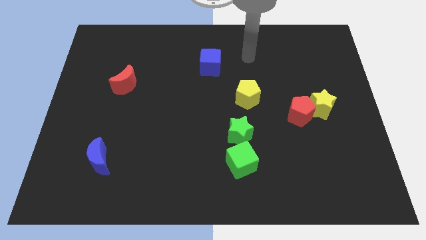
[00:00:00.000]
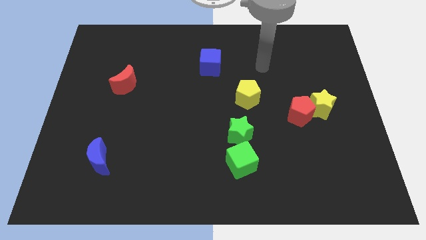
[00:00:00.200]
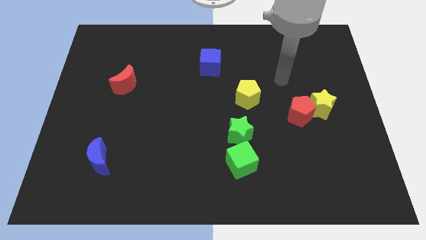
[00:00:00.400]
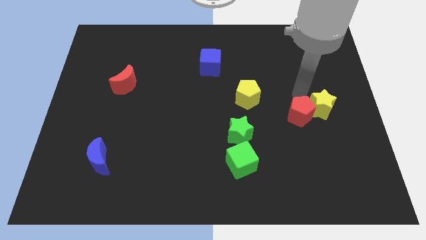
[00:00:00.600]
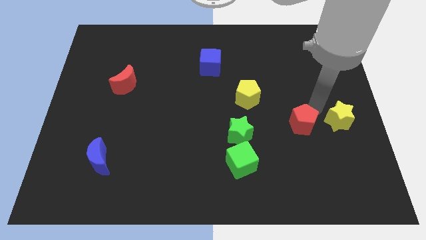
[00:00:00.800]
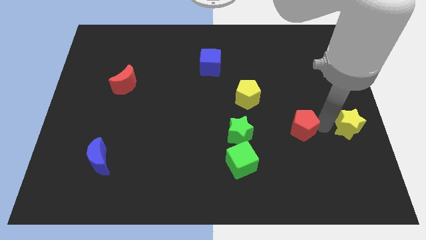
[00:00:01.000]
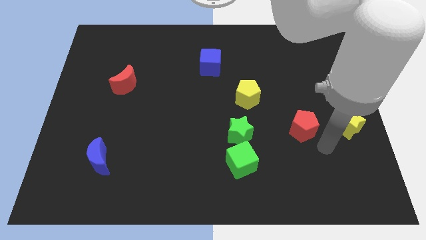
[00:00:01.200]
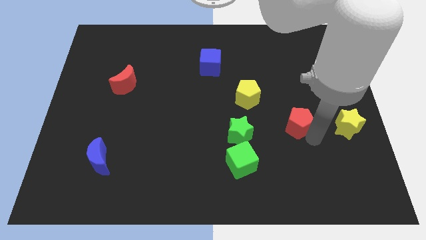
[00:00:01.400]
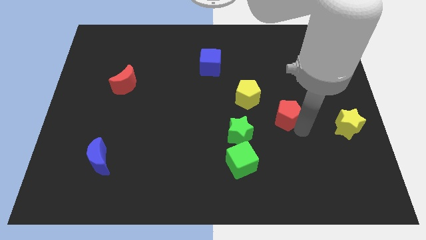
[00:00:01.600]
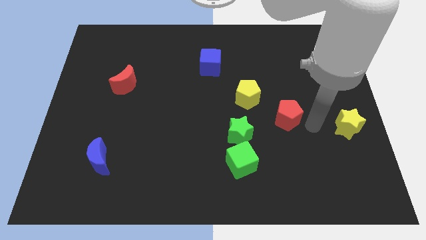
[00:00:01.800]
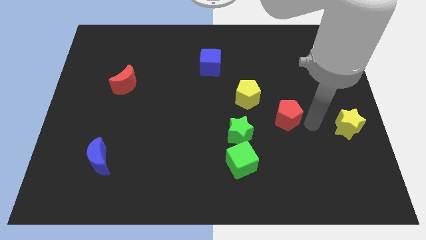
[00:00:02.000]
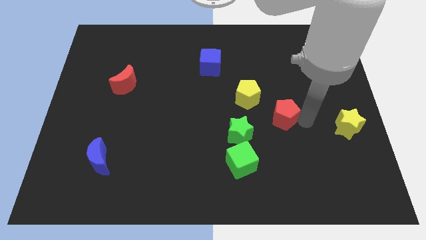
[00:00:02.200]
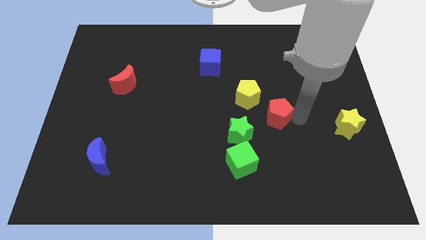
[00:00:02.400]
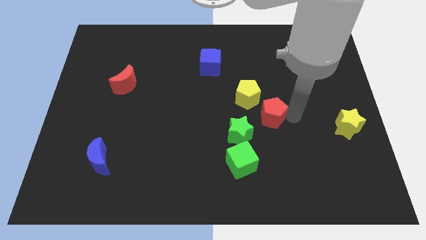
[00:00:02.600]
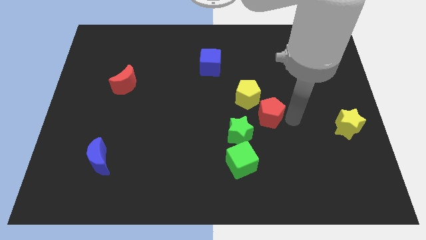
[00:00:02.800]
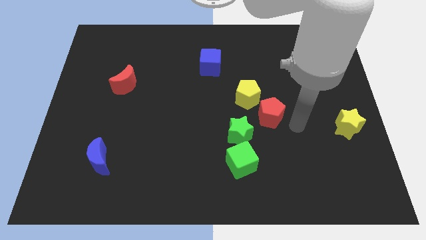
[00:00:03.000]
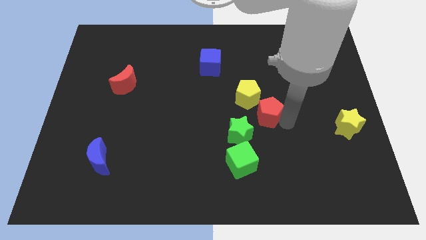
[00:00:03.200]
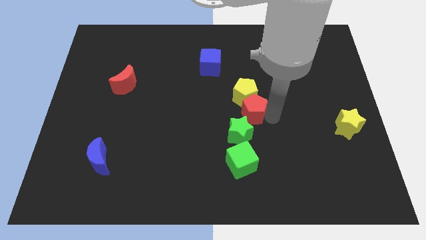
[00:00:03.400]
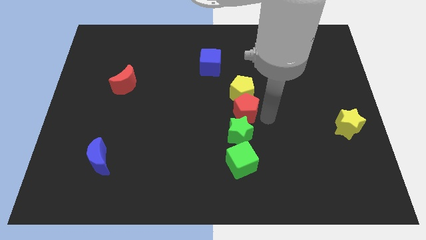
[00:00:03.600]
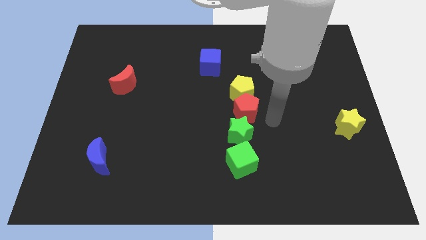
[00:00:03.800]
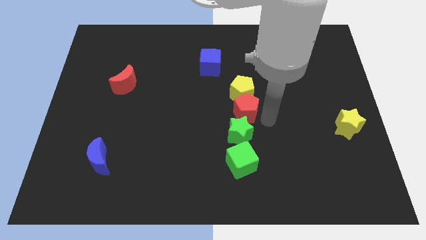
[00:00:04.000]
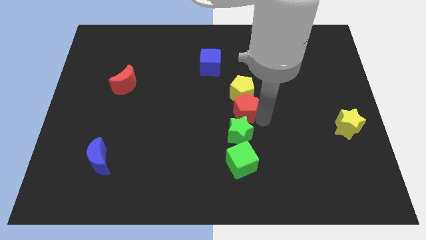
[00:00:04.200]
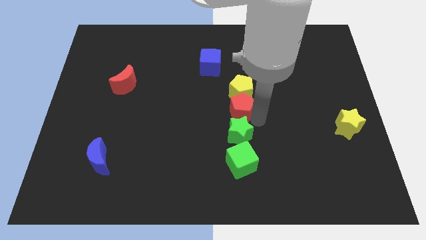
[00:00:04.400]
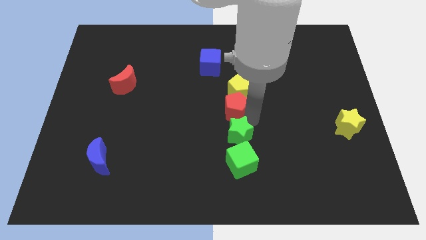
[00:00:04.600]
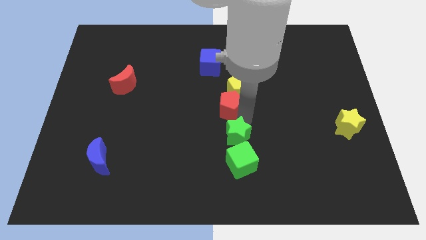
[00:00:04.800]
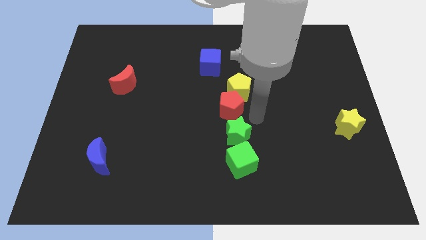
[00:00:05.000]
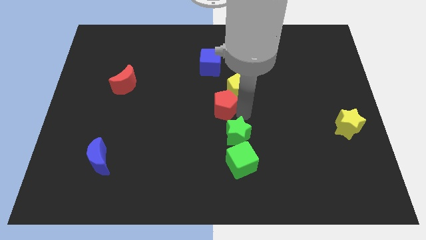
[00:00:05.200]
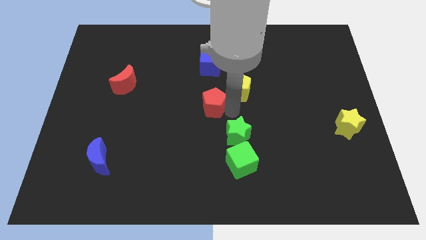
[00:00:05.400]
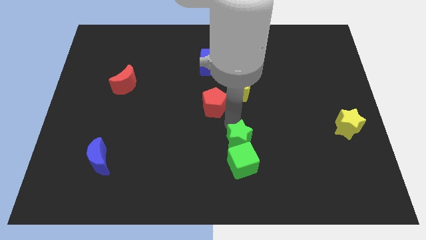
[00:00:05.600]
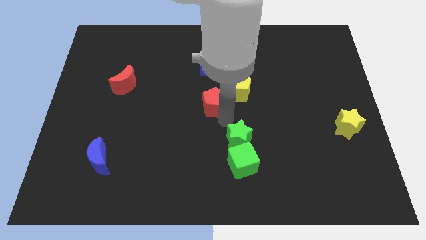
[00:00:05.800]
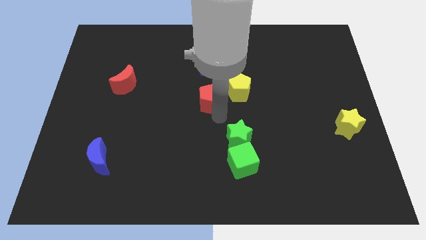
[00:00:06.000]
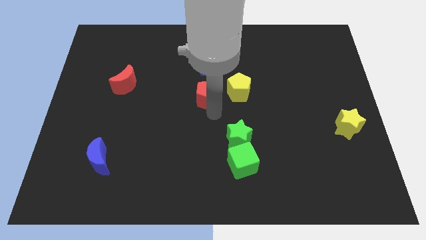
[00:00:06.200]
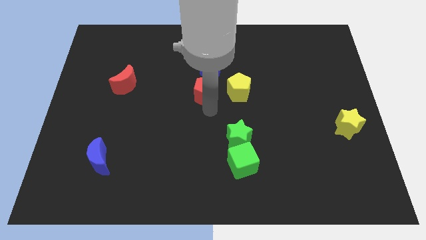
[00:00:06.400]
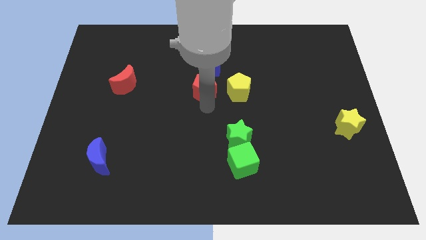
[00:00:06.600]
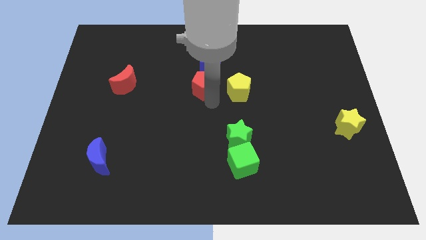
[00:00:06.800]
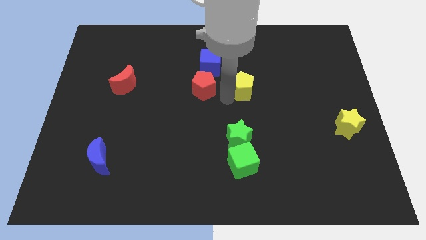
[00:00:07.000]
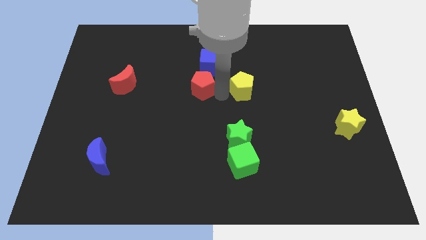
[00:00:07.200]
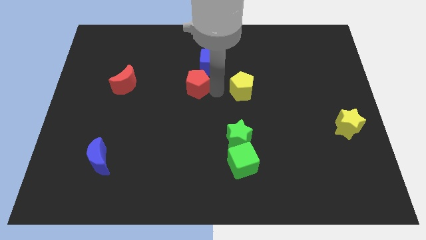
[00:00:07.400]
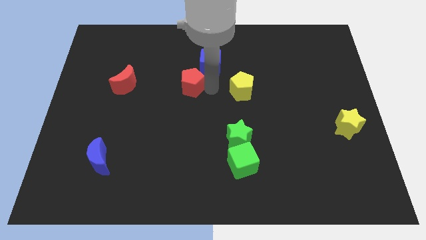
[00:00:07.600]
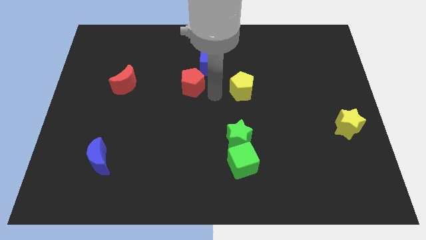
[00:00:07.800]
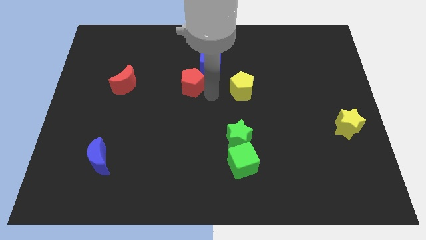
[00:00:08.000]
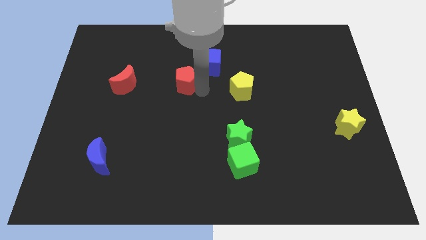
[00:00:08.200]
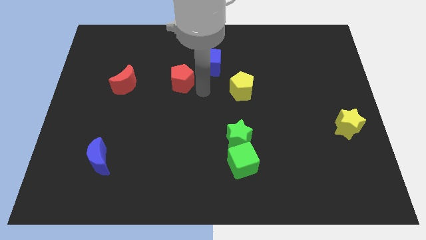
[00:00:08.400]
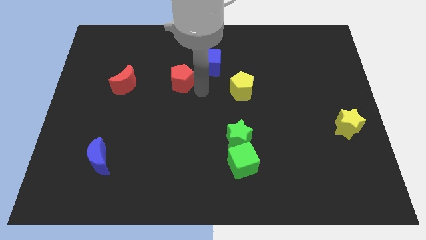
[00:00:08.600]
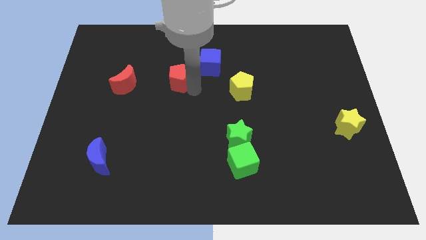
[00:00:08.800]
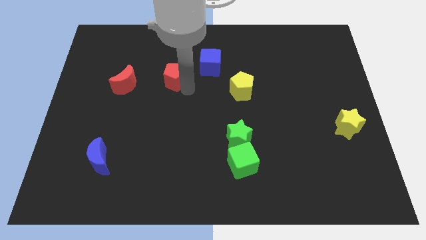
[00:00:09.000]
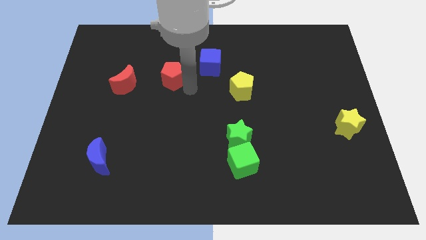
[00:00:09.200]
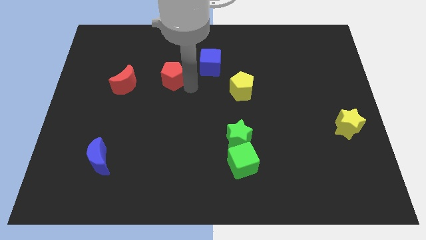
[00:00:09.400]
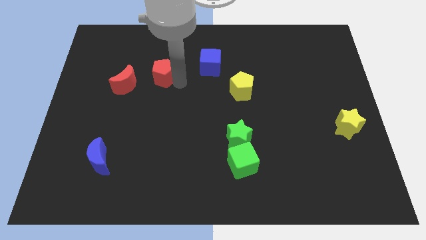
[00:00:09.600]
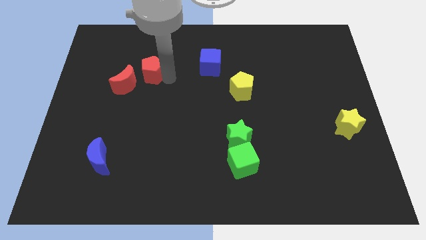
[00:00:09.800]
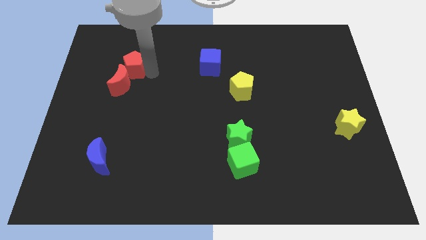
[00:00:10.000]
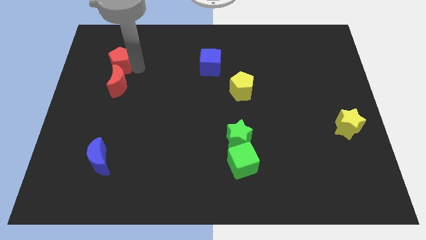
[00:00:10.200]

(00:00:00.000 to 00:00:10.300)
put the red pentagon diagonally up and to the left of the red moon

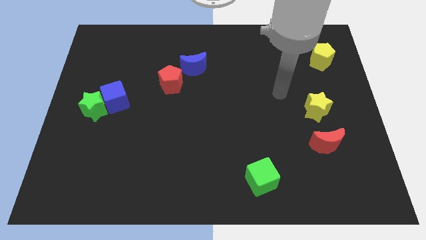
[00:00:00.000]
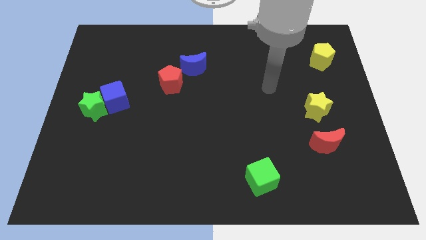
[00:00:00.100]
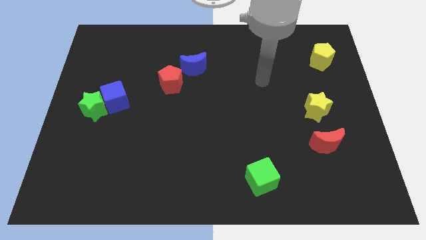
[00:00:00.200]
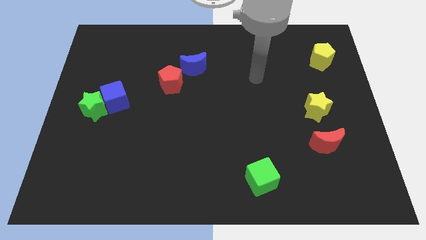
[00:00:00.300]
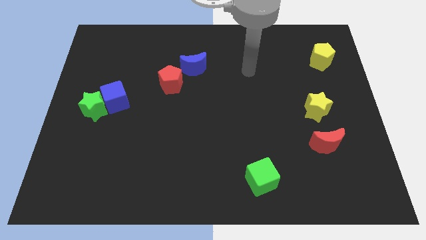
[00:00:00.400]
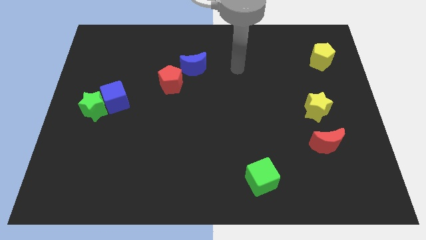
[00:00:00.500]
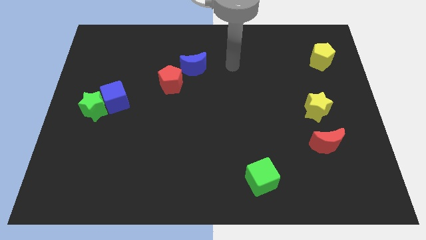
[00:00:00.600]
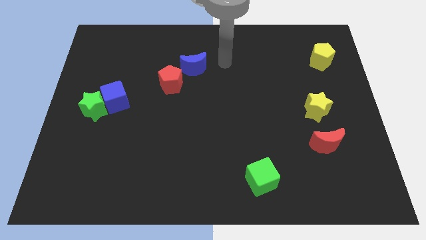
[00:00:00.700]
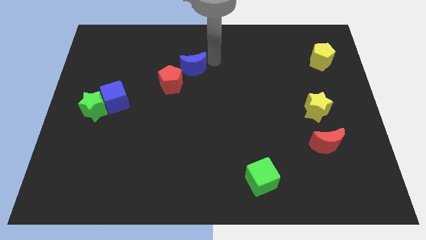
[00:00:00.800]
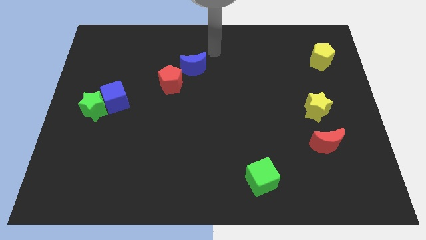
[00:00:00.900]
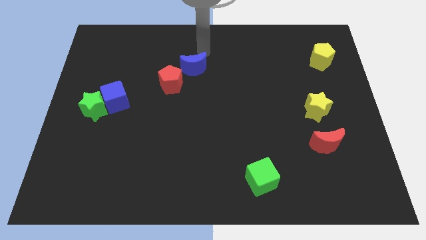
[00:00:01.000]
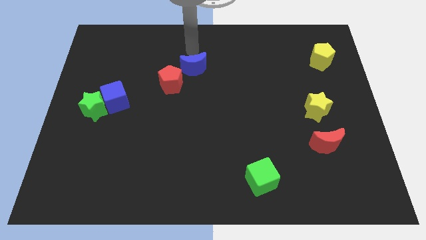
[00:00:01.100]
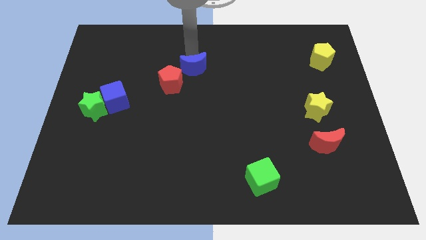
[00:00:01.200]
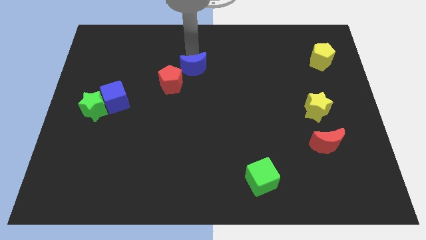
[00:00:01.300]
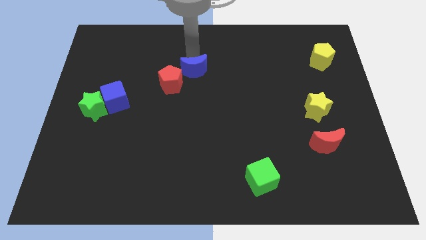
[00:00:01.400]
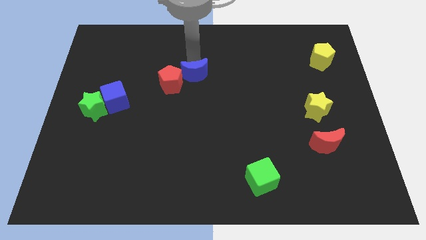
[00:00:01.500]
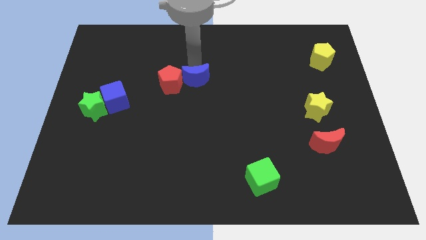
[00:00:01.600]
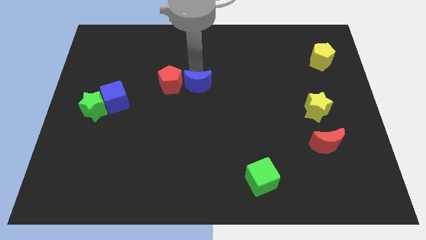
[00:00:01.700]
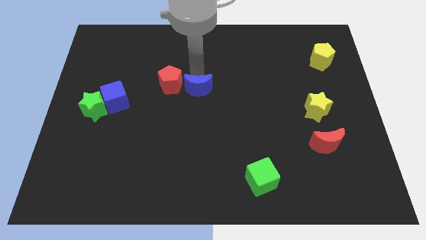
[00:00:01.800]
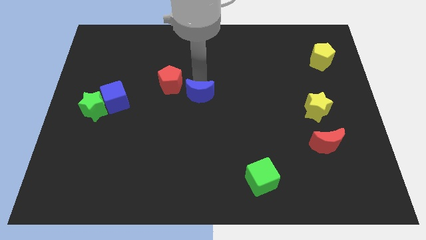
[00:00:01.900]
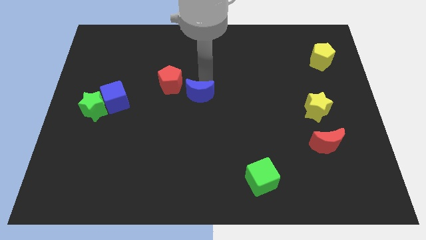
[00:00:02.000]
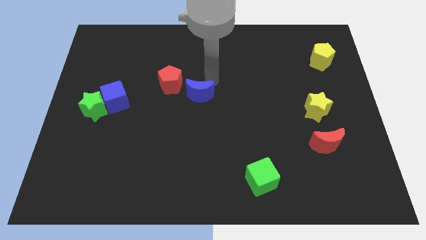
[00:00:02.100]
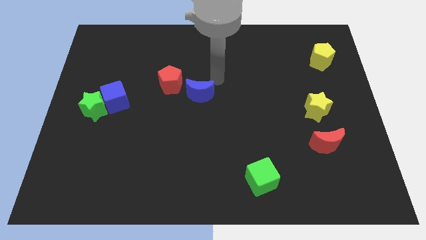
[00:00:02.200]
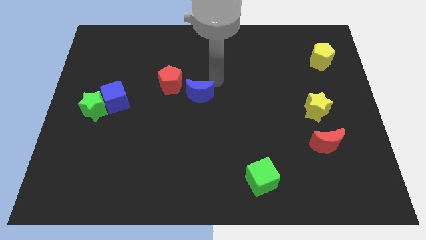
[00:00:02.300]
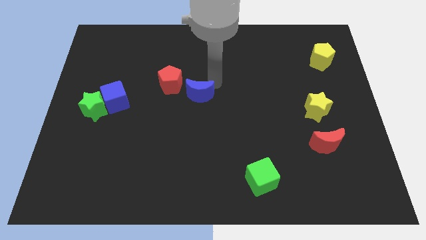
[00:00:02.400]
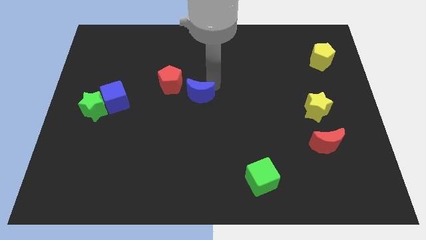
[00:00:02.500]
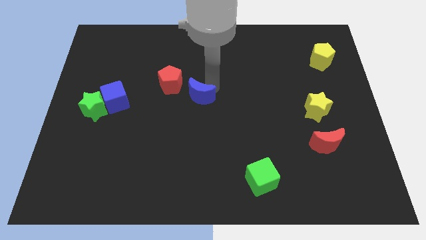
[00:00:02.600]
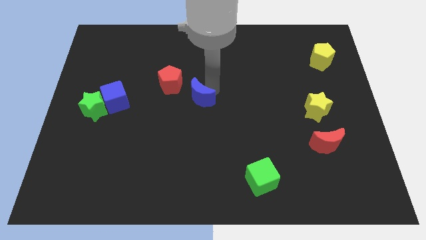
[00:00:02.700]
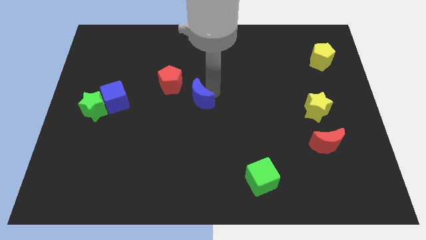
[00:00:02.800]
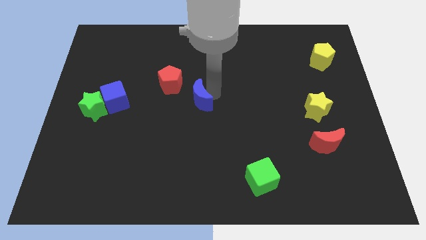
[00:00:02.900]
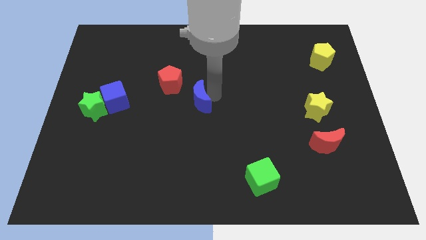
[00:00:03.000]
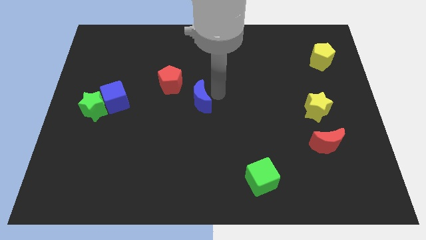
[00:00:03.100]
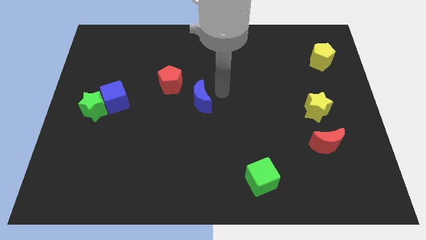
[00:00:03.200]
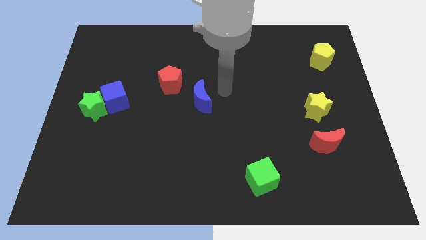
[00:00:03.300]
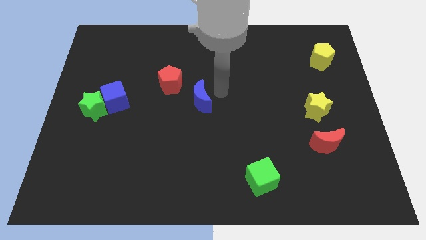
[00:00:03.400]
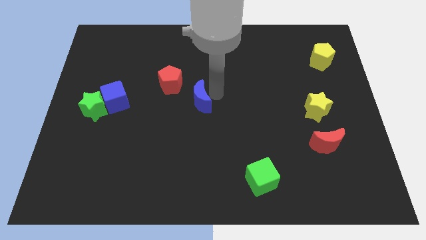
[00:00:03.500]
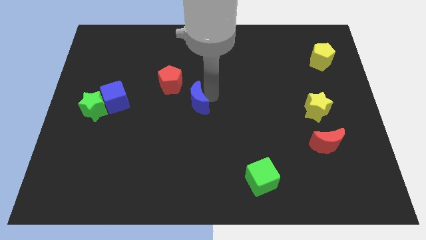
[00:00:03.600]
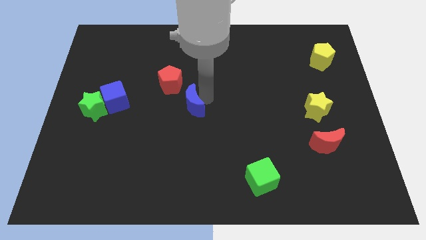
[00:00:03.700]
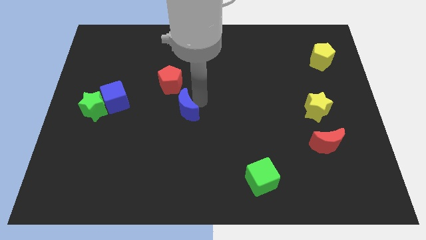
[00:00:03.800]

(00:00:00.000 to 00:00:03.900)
push the blue moon to the bottom side of the red pentagon
